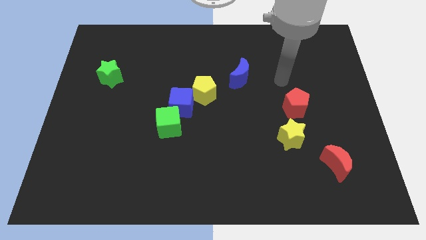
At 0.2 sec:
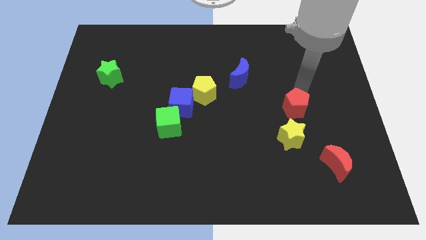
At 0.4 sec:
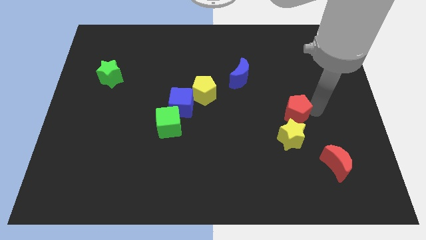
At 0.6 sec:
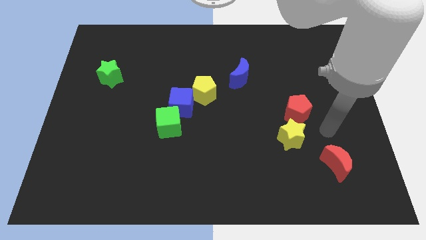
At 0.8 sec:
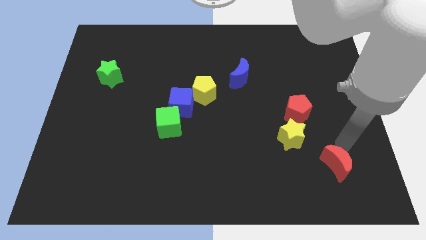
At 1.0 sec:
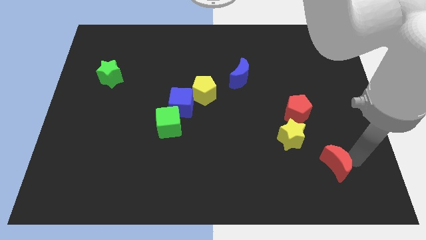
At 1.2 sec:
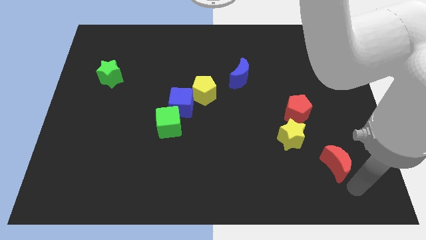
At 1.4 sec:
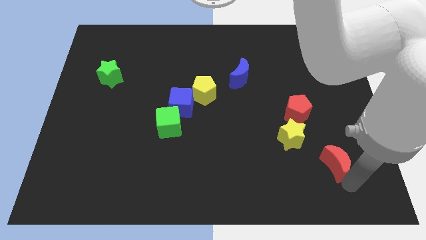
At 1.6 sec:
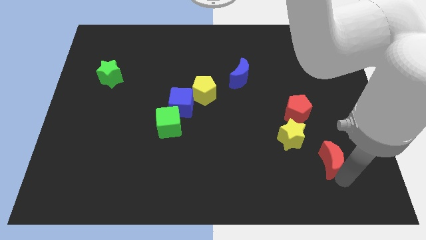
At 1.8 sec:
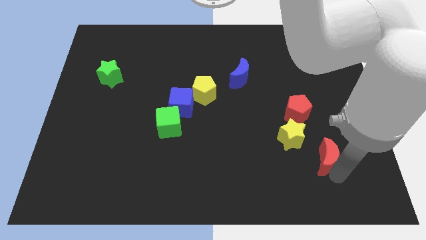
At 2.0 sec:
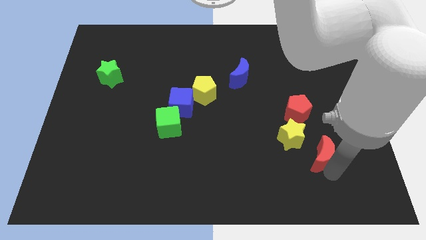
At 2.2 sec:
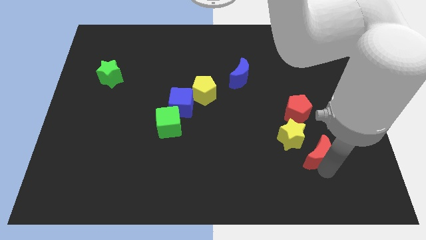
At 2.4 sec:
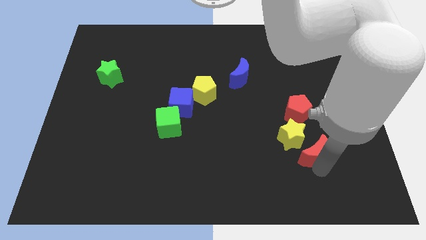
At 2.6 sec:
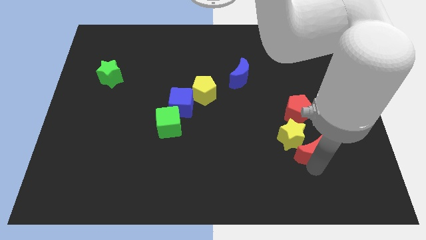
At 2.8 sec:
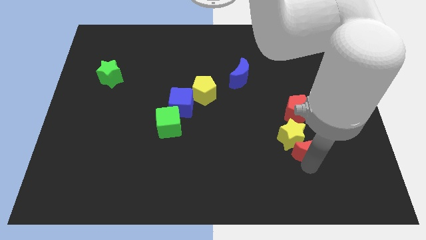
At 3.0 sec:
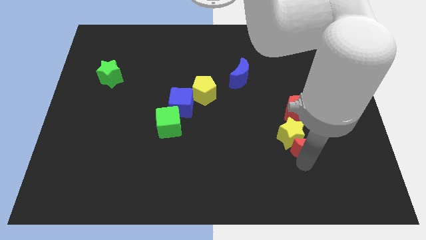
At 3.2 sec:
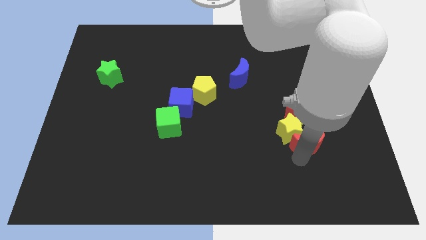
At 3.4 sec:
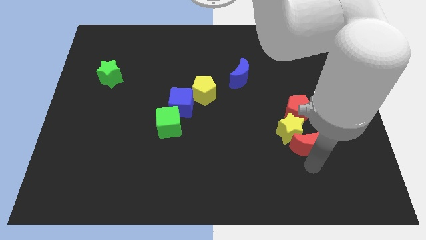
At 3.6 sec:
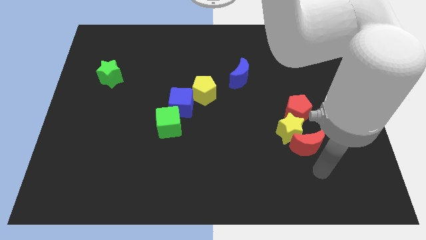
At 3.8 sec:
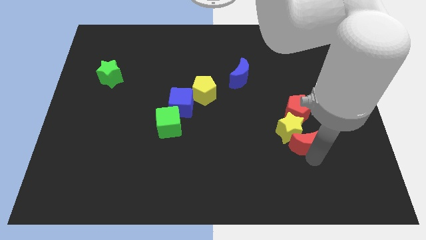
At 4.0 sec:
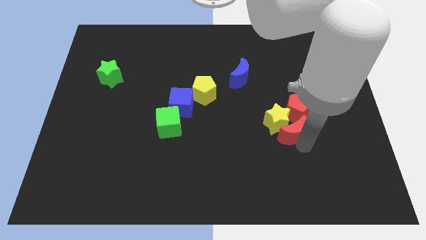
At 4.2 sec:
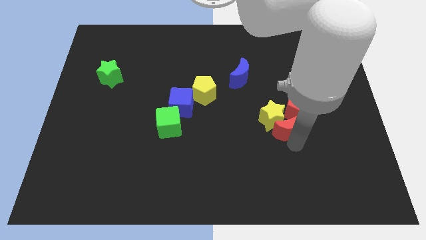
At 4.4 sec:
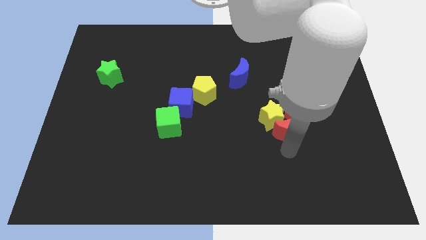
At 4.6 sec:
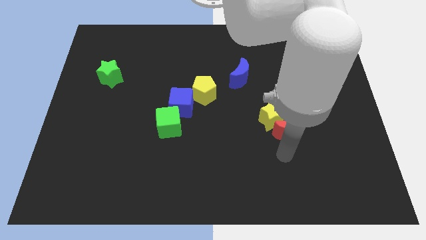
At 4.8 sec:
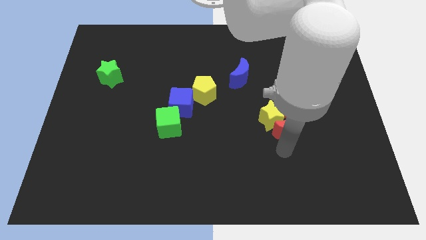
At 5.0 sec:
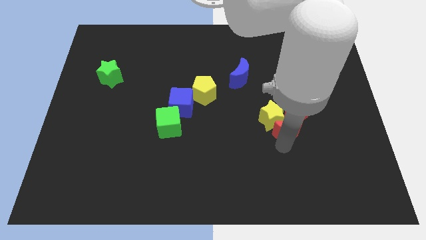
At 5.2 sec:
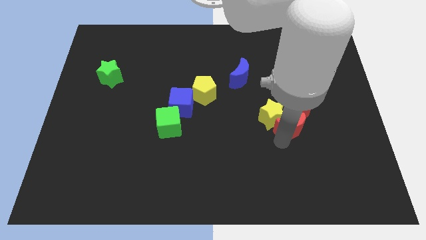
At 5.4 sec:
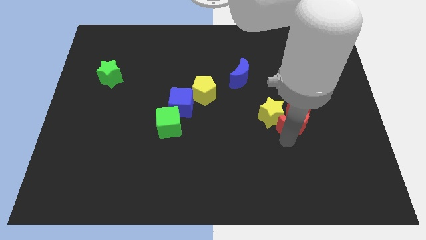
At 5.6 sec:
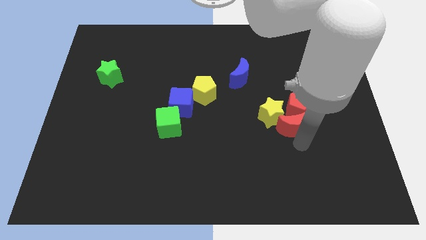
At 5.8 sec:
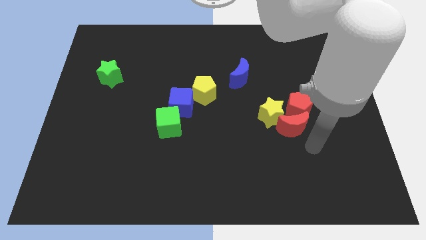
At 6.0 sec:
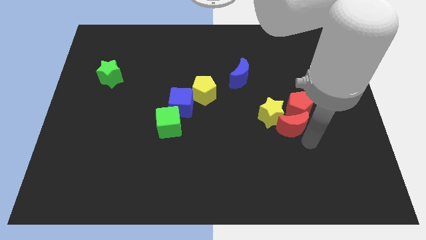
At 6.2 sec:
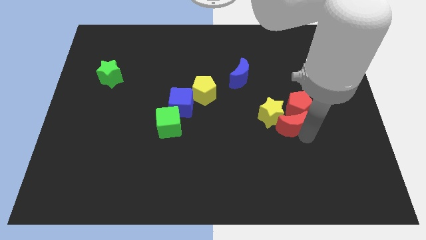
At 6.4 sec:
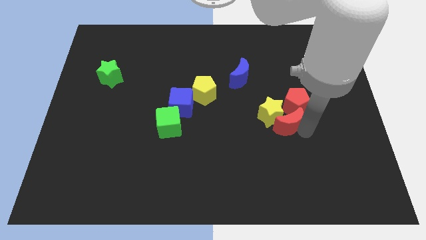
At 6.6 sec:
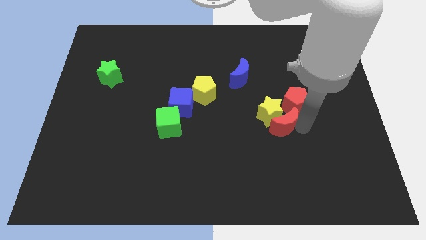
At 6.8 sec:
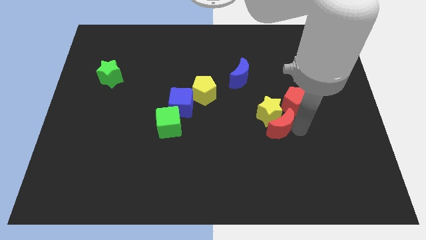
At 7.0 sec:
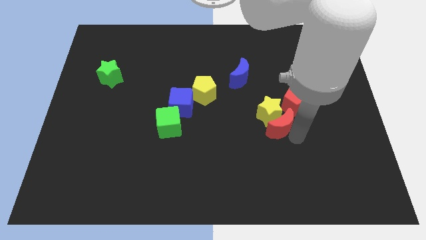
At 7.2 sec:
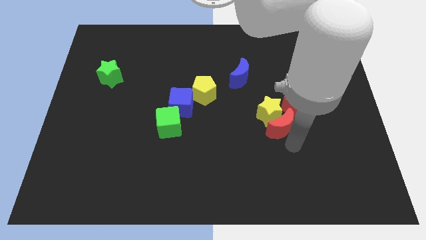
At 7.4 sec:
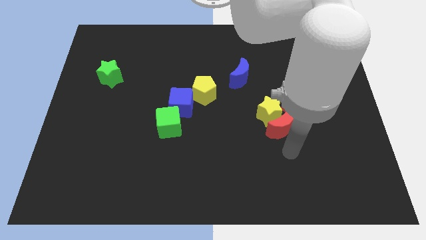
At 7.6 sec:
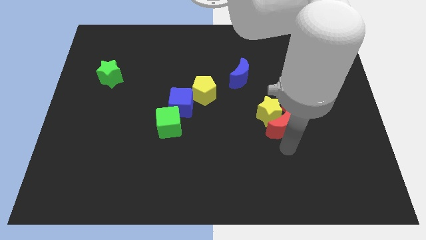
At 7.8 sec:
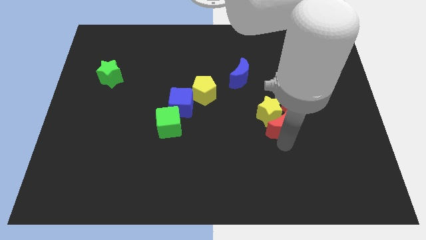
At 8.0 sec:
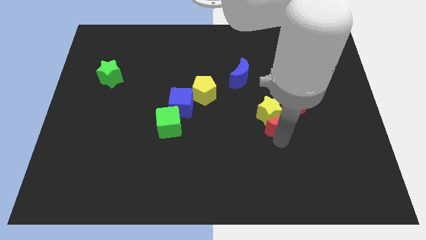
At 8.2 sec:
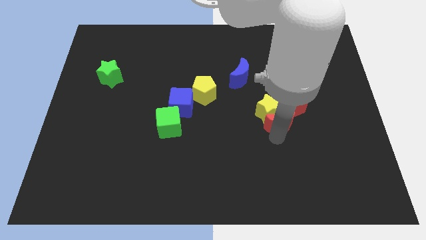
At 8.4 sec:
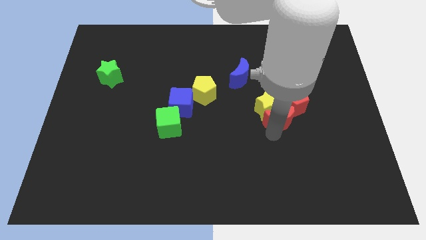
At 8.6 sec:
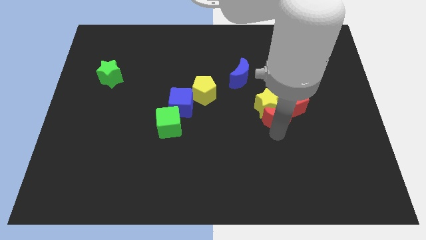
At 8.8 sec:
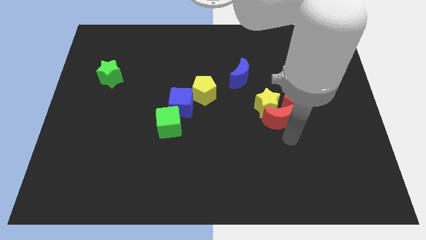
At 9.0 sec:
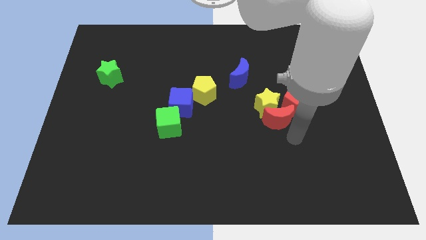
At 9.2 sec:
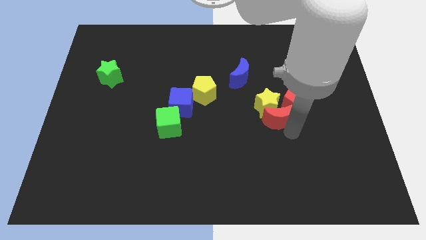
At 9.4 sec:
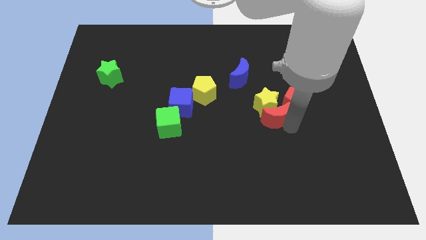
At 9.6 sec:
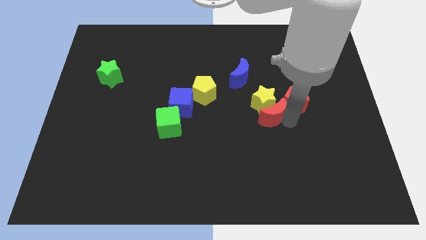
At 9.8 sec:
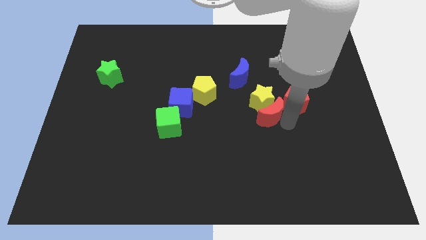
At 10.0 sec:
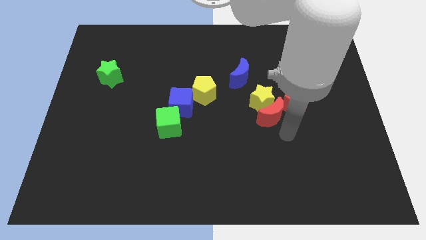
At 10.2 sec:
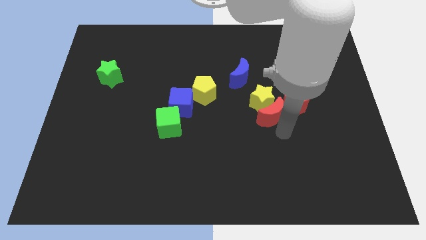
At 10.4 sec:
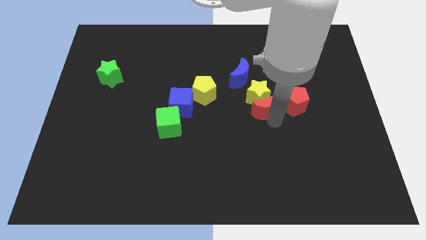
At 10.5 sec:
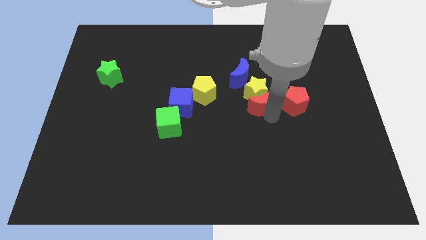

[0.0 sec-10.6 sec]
slide the red moon to the right side of the yellow pentagon

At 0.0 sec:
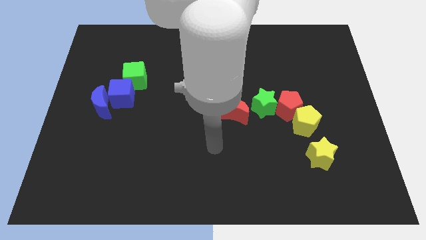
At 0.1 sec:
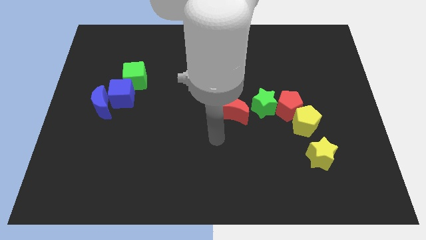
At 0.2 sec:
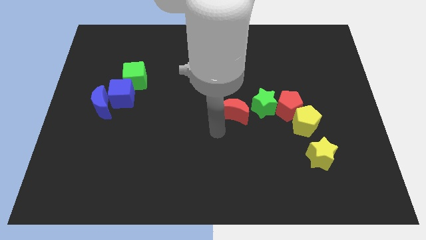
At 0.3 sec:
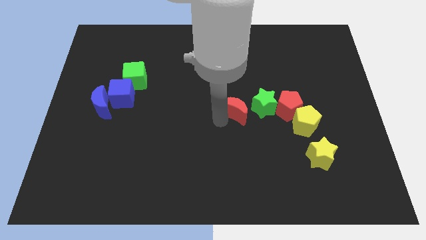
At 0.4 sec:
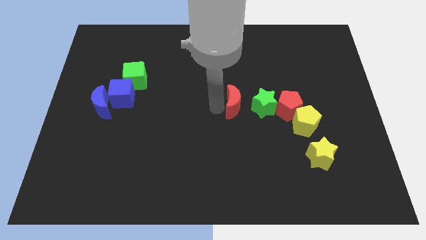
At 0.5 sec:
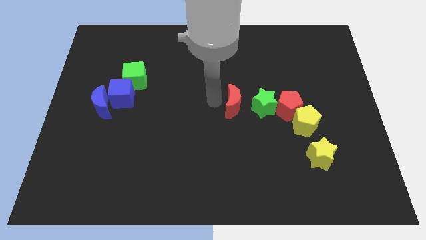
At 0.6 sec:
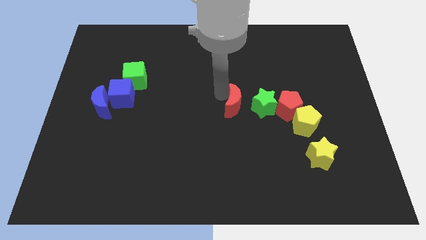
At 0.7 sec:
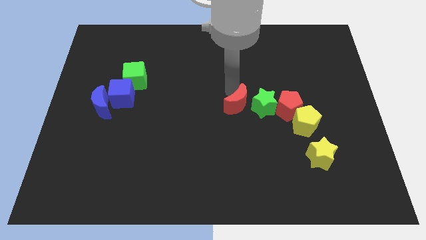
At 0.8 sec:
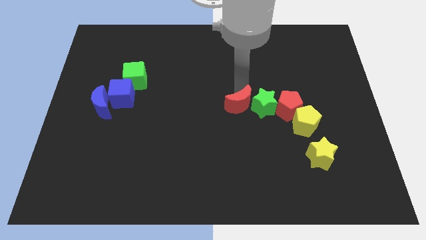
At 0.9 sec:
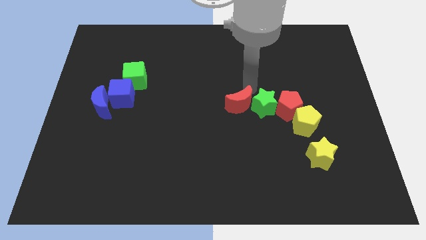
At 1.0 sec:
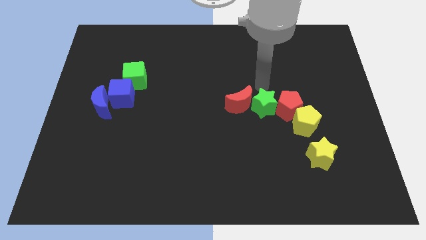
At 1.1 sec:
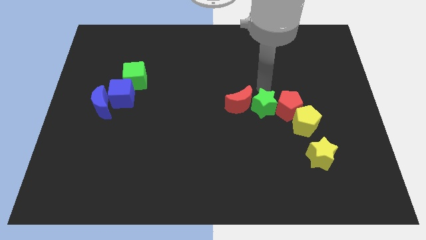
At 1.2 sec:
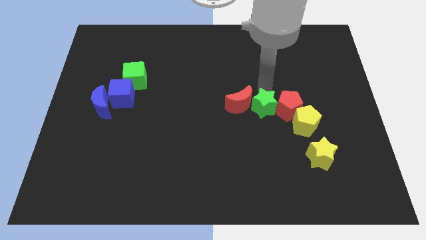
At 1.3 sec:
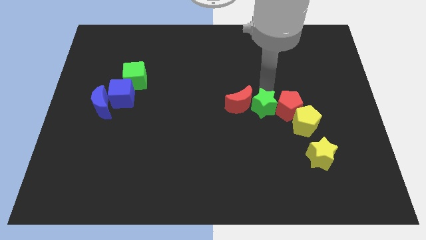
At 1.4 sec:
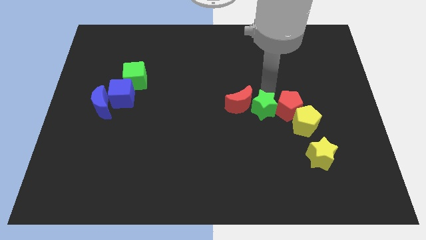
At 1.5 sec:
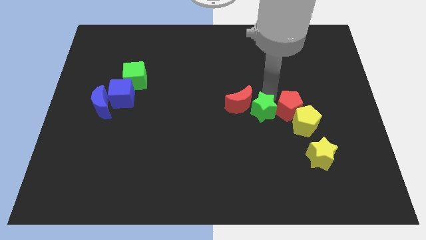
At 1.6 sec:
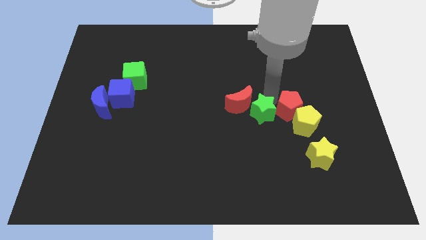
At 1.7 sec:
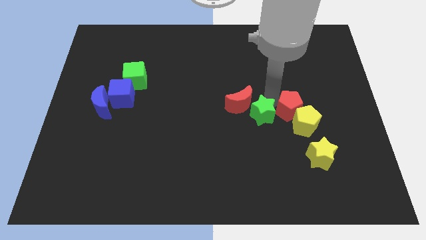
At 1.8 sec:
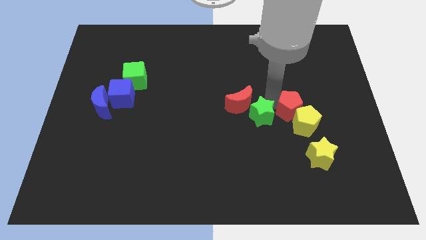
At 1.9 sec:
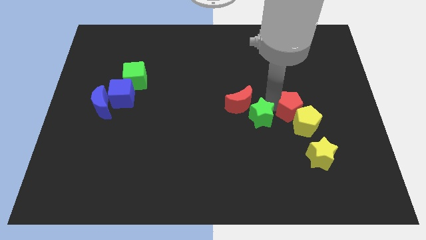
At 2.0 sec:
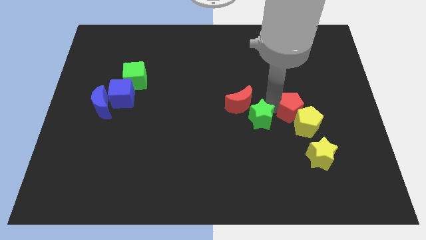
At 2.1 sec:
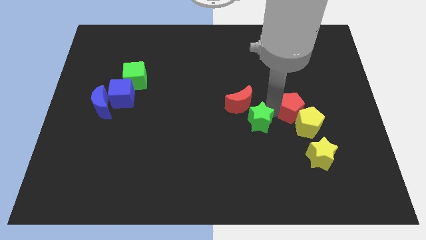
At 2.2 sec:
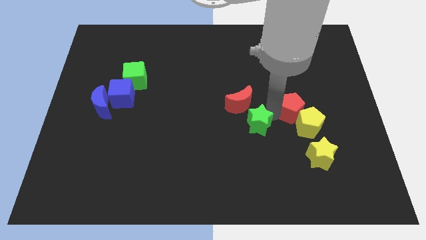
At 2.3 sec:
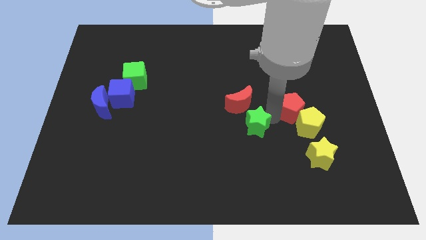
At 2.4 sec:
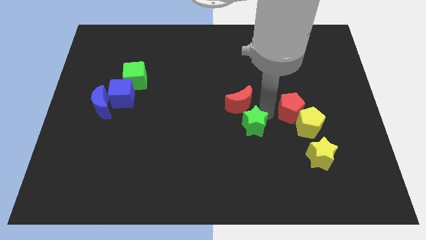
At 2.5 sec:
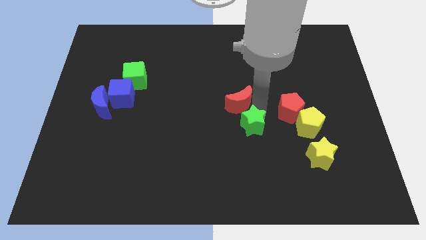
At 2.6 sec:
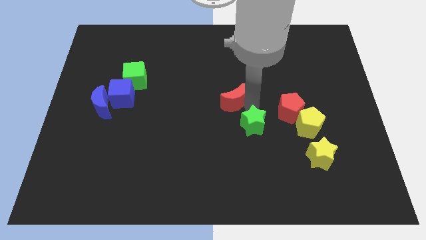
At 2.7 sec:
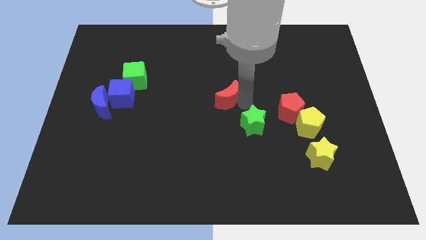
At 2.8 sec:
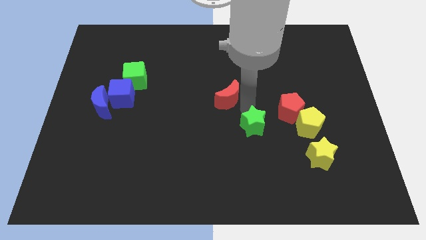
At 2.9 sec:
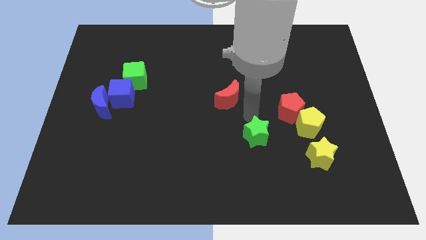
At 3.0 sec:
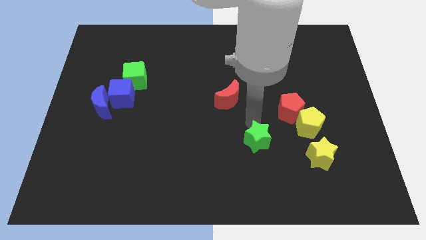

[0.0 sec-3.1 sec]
slide the green star just left of the yellow star
